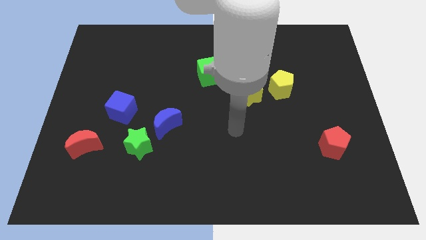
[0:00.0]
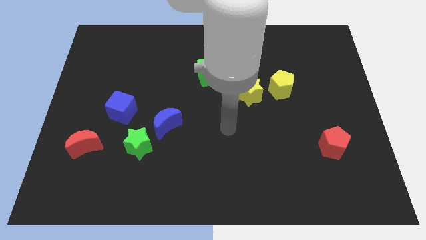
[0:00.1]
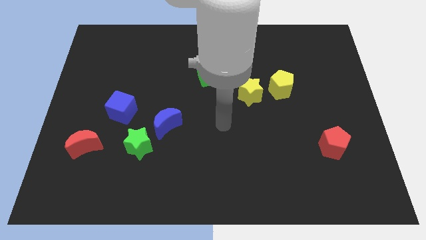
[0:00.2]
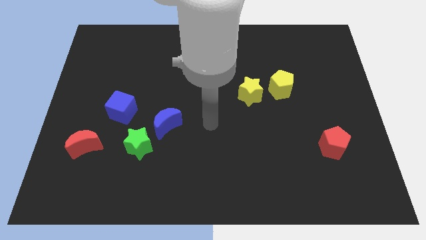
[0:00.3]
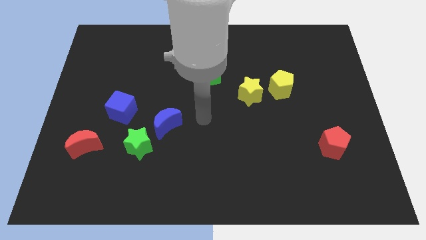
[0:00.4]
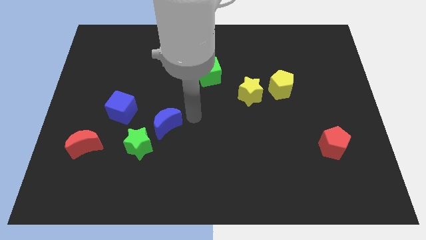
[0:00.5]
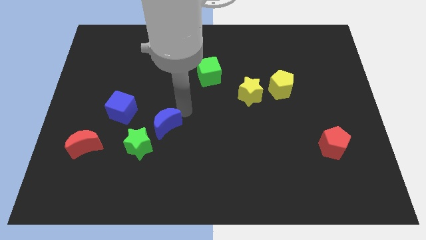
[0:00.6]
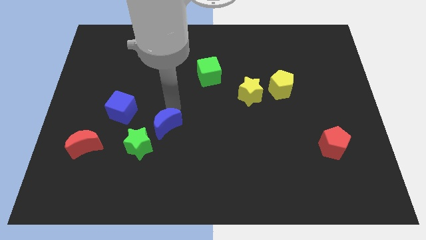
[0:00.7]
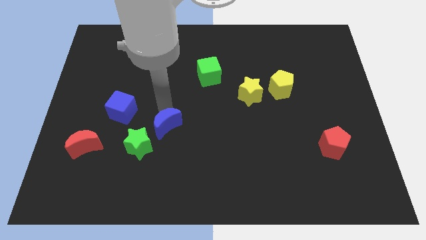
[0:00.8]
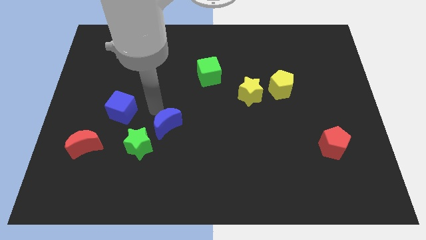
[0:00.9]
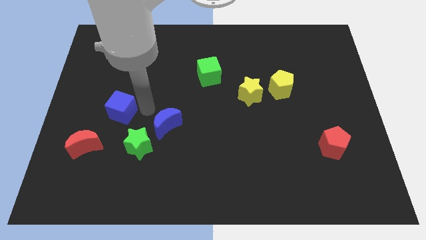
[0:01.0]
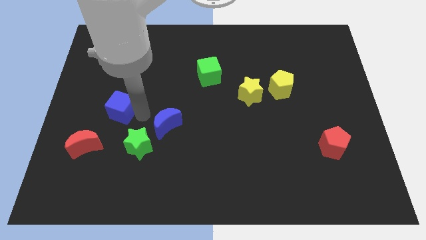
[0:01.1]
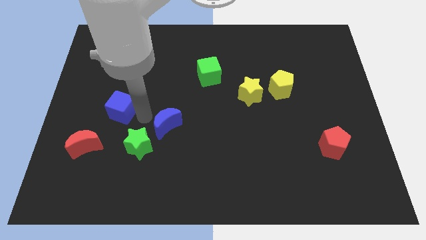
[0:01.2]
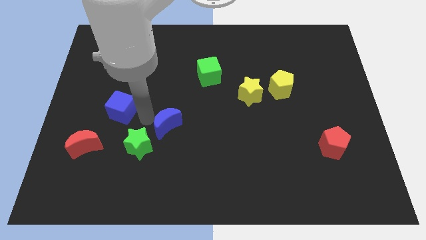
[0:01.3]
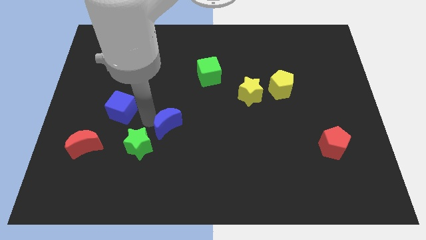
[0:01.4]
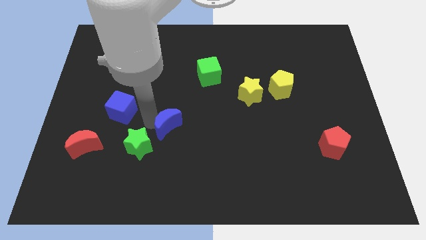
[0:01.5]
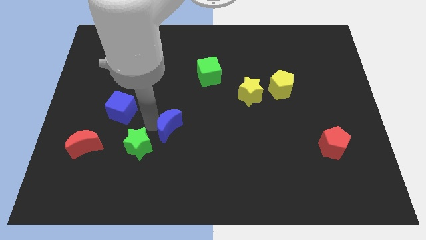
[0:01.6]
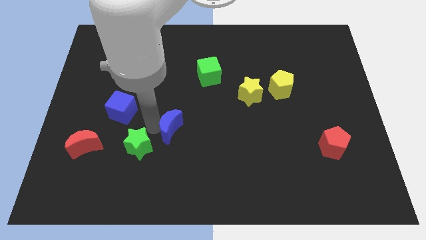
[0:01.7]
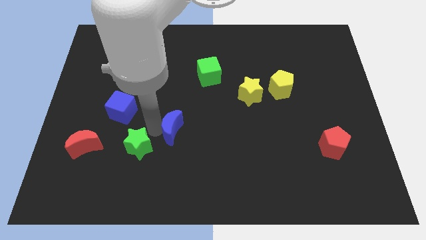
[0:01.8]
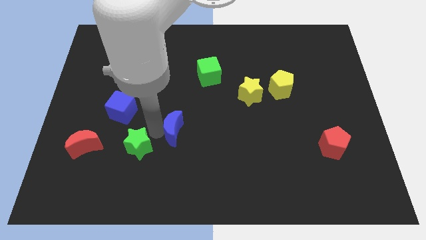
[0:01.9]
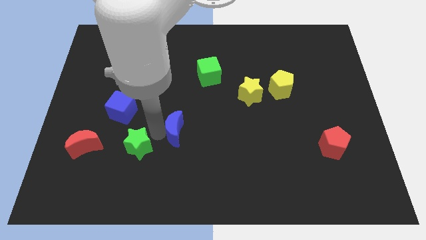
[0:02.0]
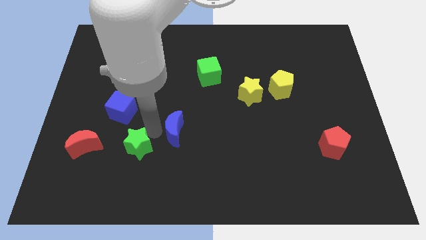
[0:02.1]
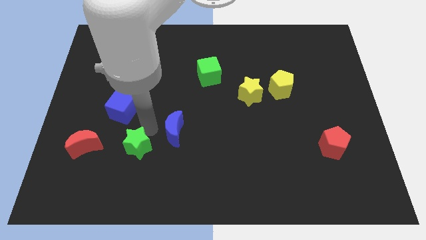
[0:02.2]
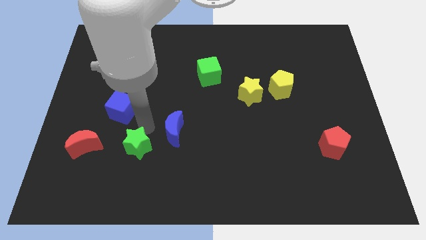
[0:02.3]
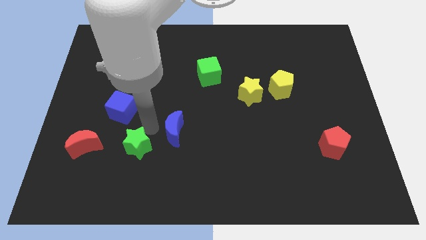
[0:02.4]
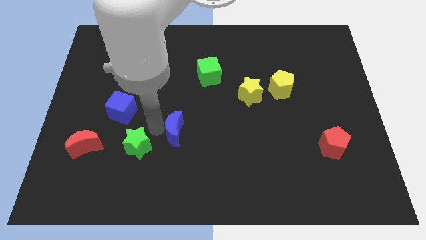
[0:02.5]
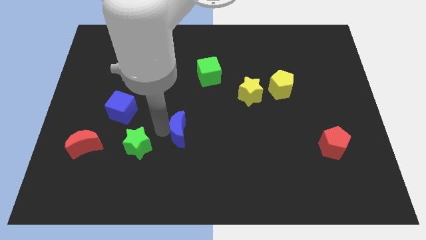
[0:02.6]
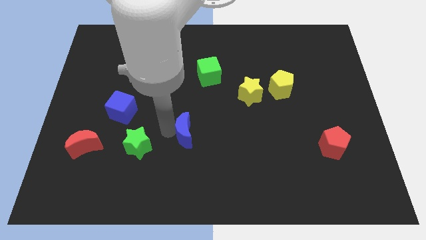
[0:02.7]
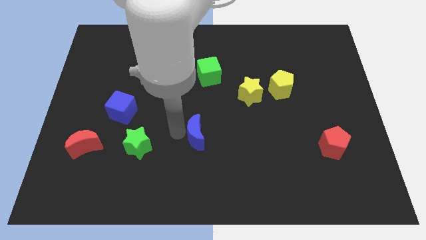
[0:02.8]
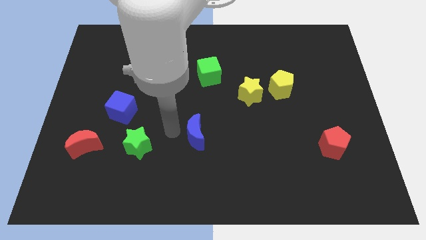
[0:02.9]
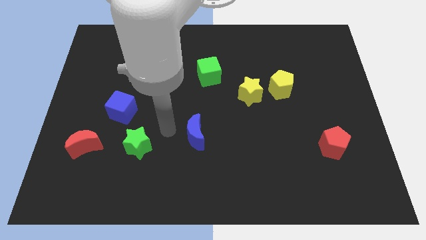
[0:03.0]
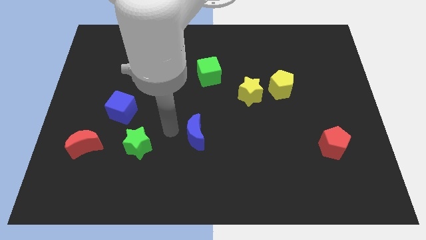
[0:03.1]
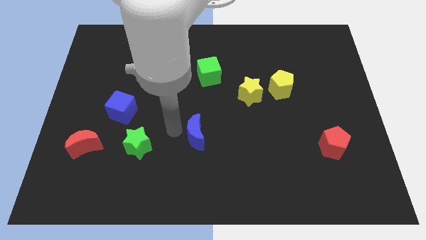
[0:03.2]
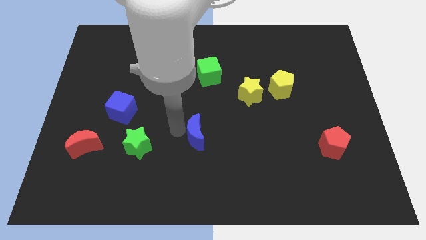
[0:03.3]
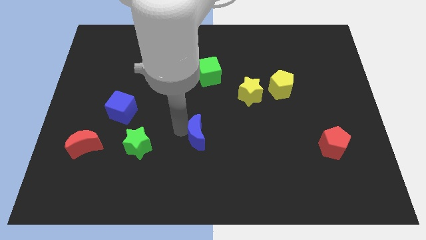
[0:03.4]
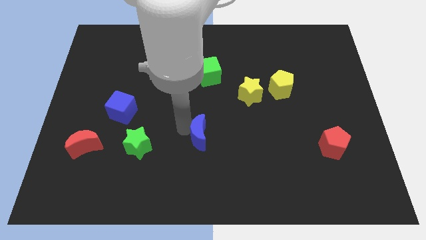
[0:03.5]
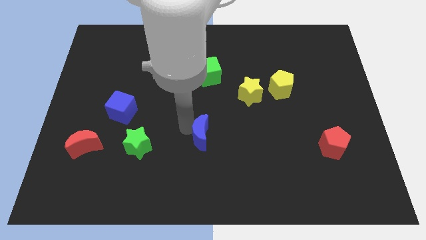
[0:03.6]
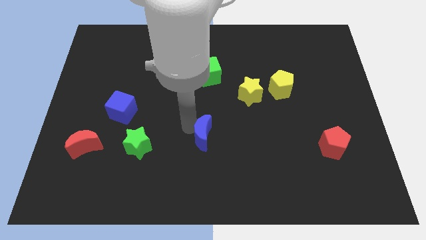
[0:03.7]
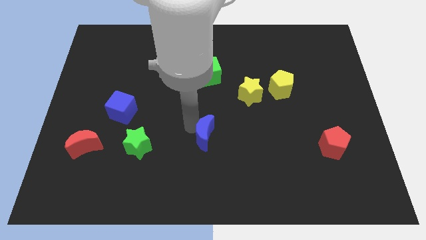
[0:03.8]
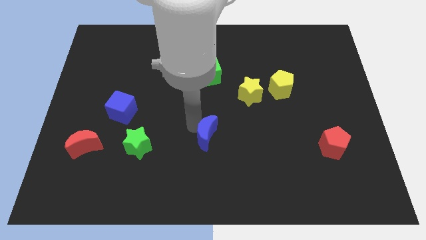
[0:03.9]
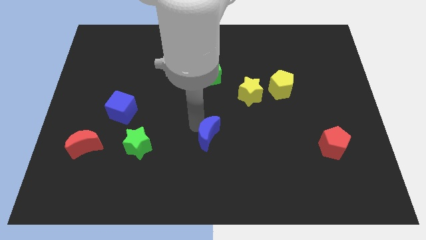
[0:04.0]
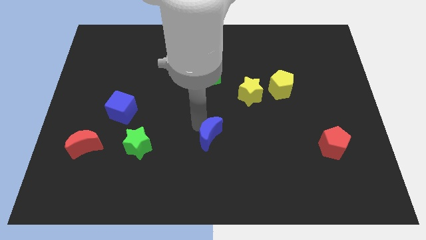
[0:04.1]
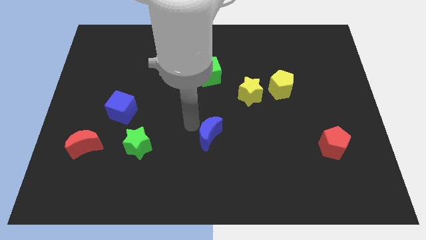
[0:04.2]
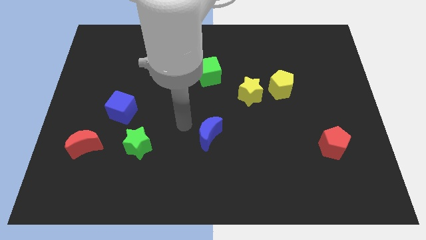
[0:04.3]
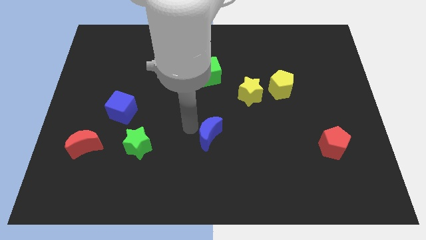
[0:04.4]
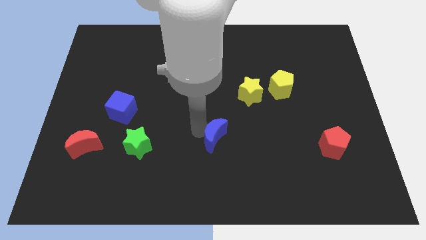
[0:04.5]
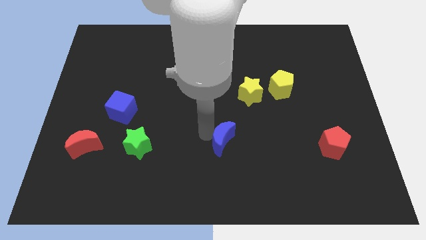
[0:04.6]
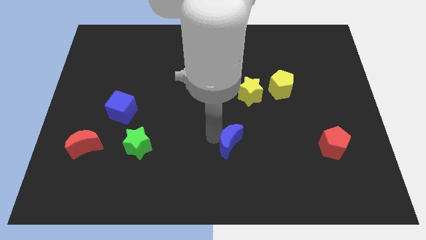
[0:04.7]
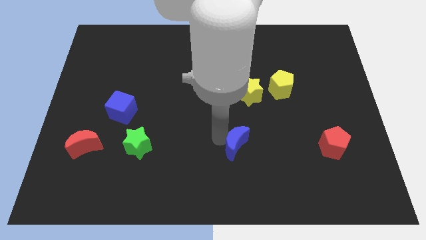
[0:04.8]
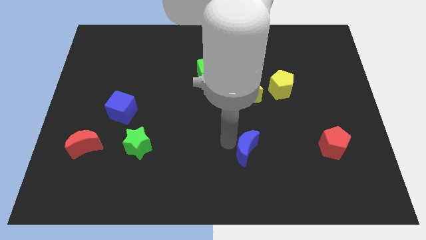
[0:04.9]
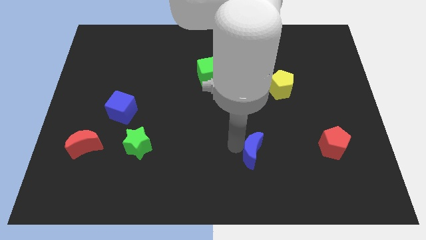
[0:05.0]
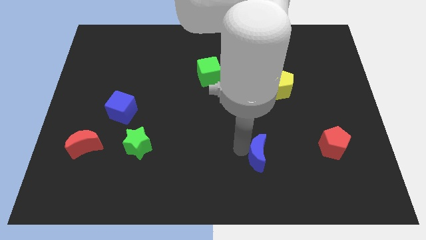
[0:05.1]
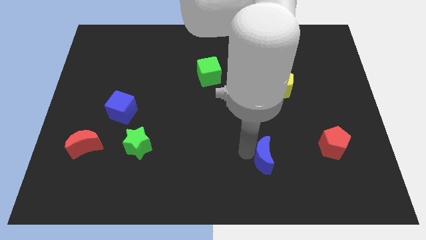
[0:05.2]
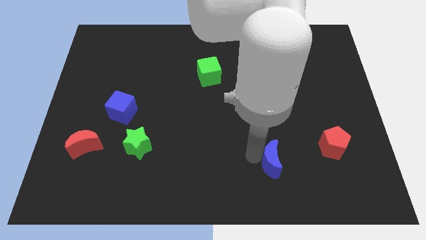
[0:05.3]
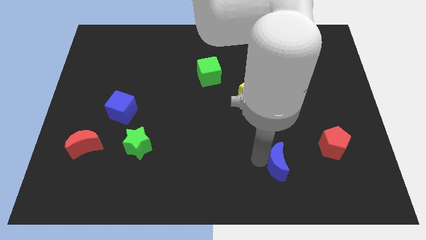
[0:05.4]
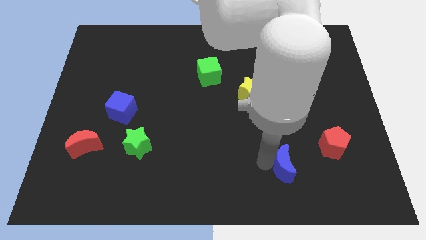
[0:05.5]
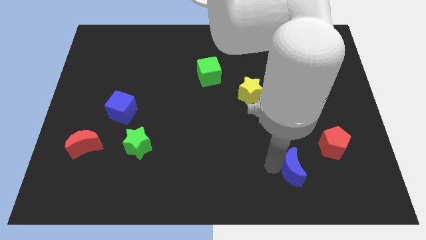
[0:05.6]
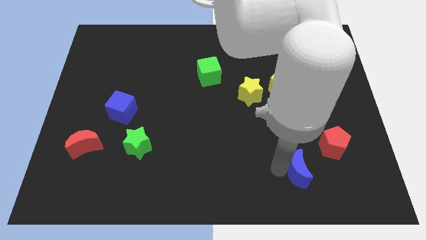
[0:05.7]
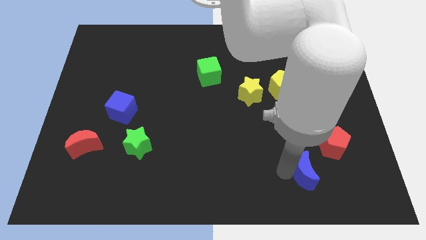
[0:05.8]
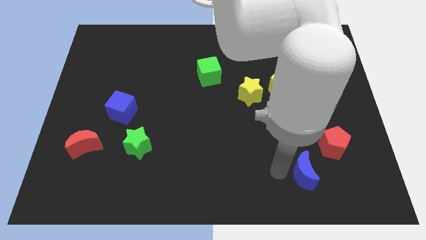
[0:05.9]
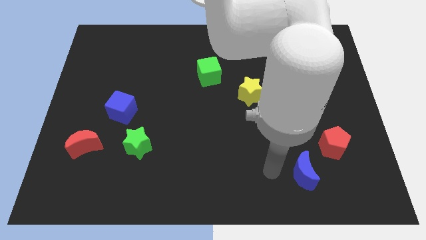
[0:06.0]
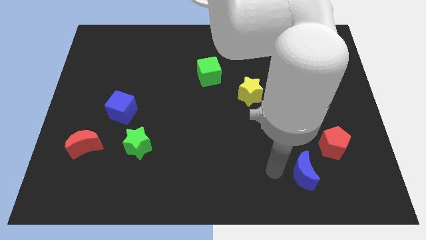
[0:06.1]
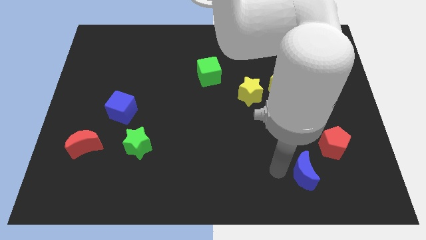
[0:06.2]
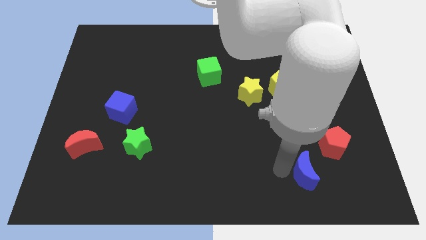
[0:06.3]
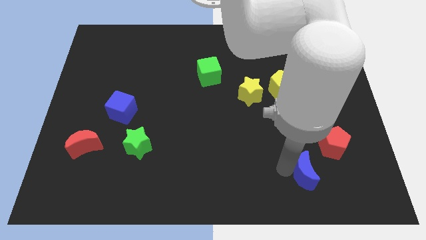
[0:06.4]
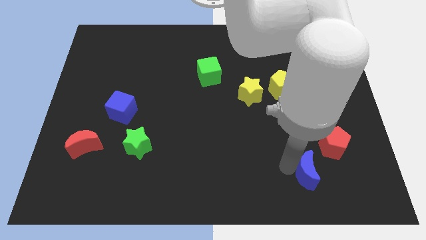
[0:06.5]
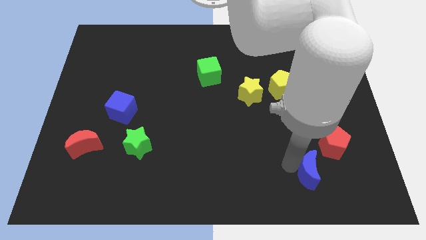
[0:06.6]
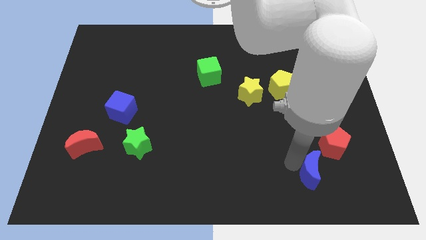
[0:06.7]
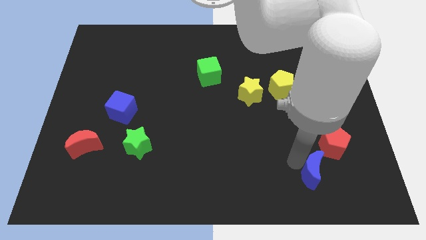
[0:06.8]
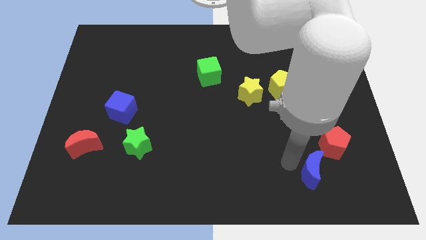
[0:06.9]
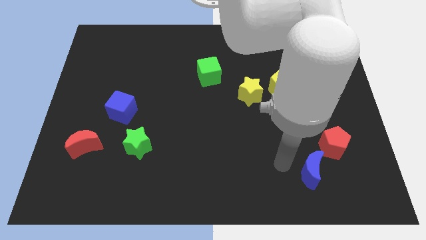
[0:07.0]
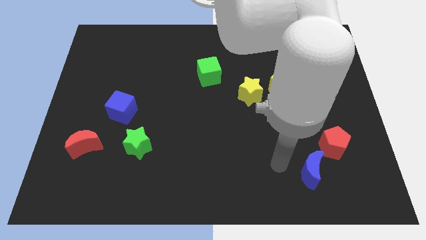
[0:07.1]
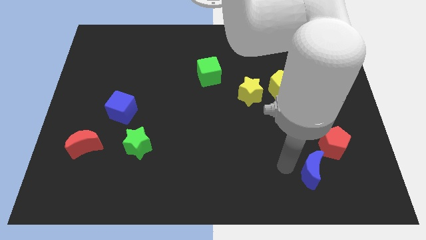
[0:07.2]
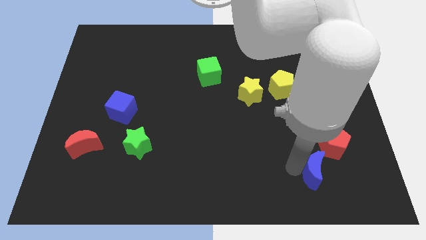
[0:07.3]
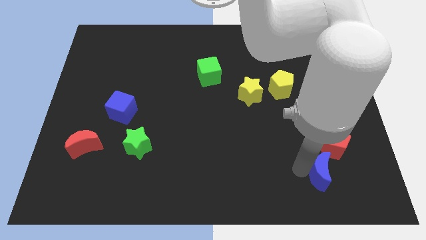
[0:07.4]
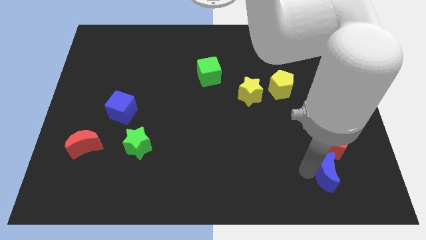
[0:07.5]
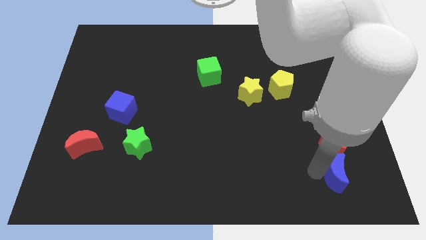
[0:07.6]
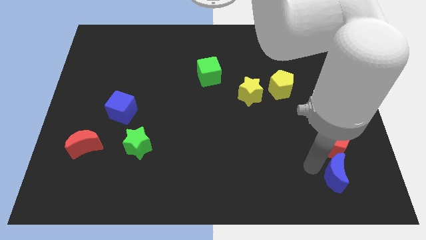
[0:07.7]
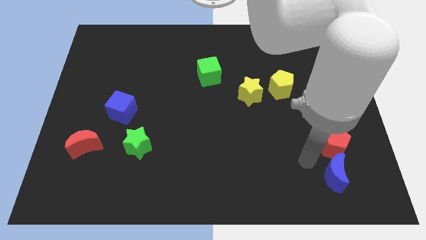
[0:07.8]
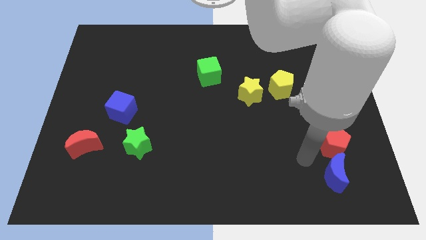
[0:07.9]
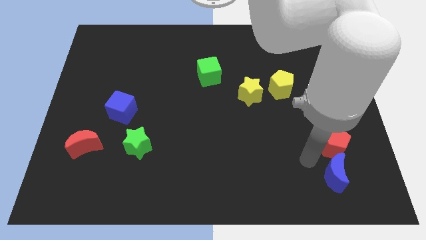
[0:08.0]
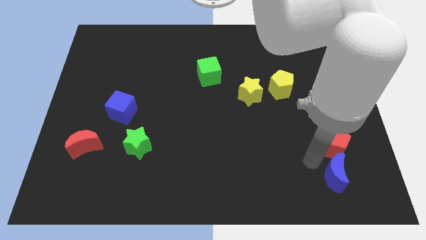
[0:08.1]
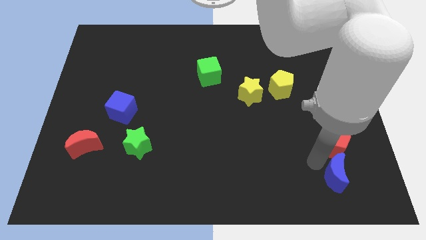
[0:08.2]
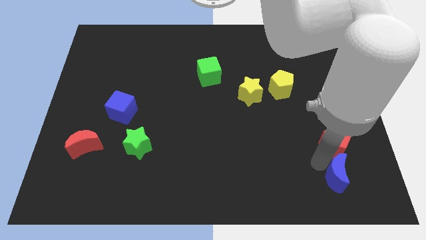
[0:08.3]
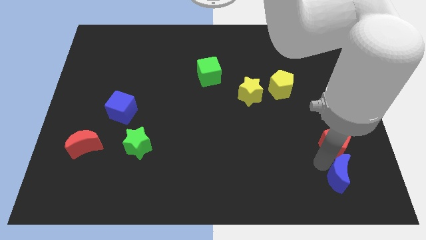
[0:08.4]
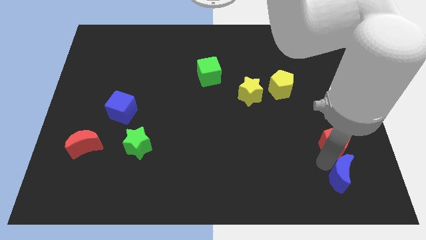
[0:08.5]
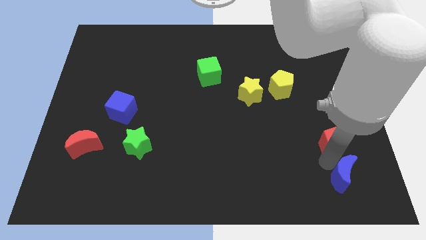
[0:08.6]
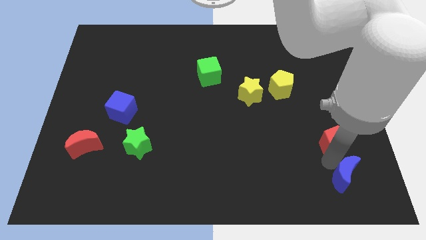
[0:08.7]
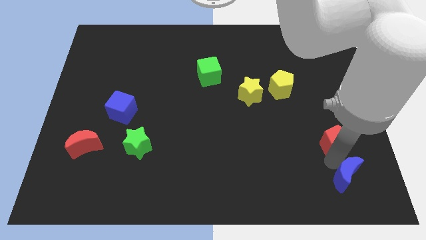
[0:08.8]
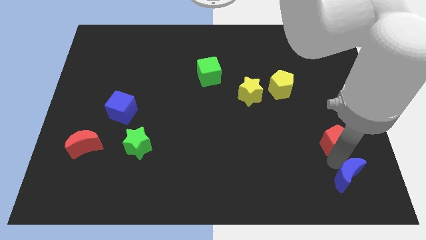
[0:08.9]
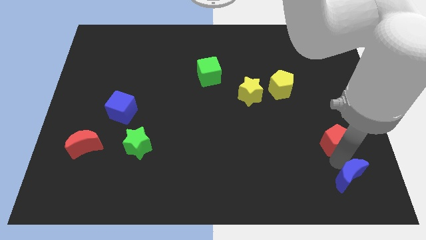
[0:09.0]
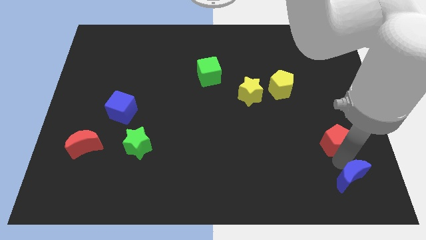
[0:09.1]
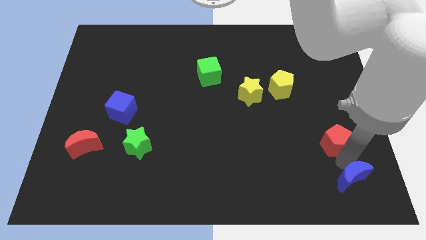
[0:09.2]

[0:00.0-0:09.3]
move the blue moon to the bottom right corner
